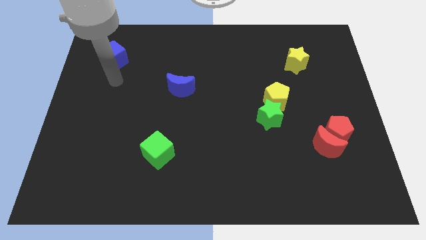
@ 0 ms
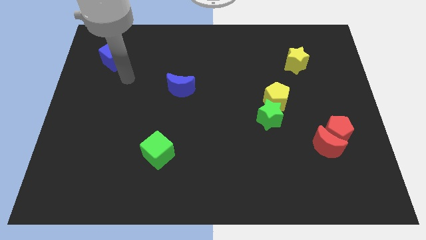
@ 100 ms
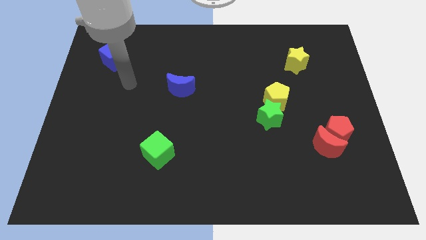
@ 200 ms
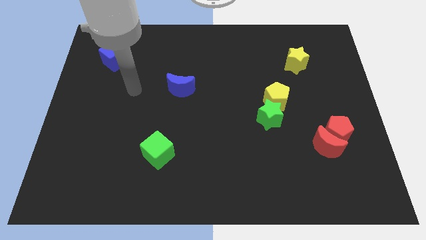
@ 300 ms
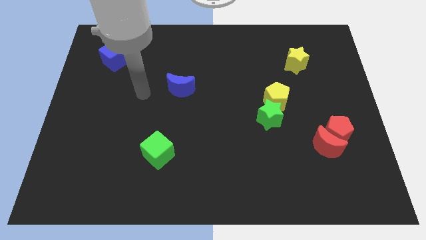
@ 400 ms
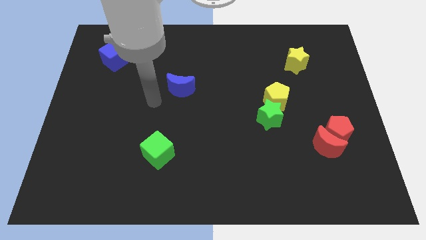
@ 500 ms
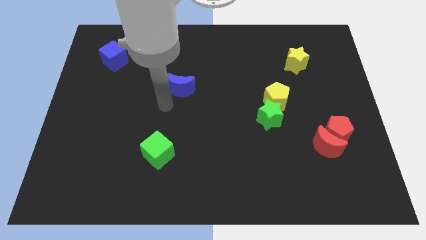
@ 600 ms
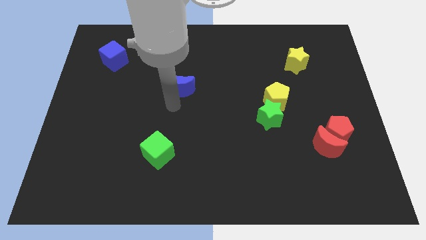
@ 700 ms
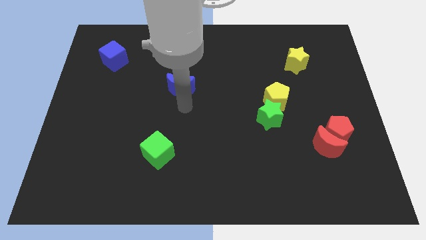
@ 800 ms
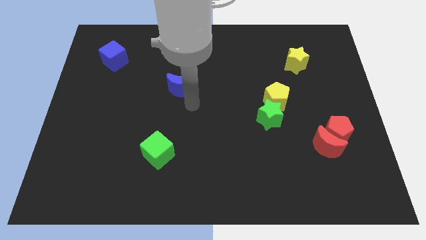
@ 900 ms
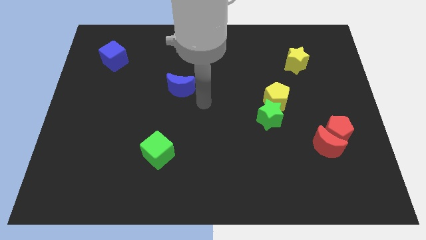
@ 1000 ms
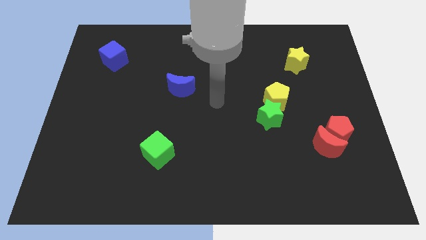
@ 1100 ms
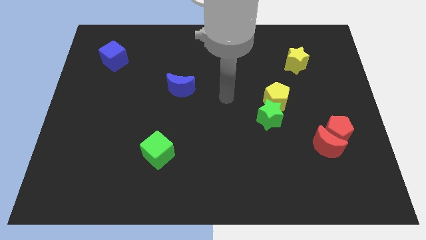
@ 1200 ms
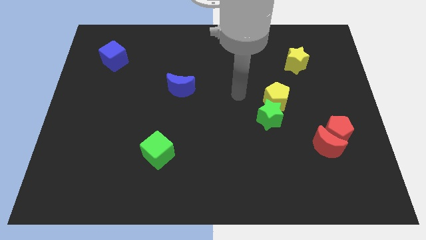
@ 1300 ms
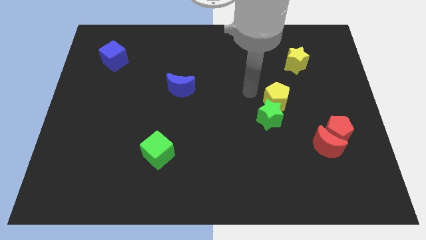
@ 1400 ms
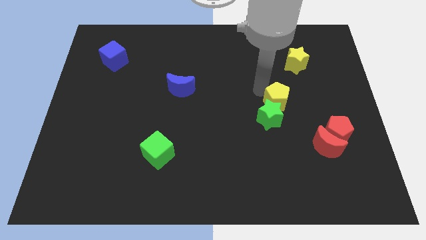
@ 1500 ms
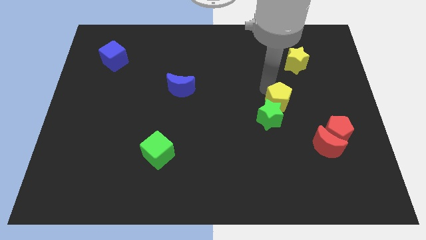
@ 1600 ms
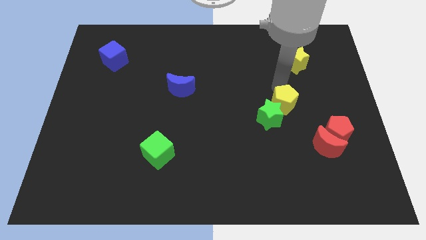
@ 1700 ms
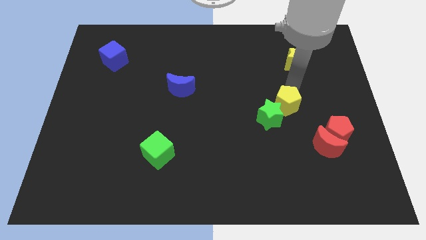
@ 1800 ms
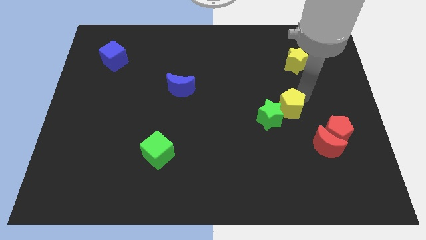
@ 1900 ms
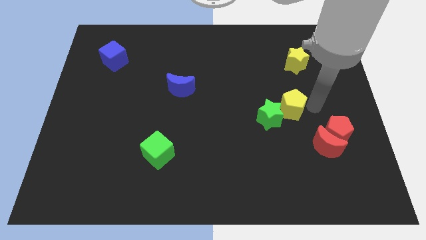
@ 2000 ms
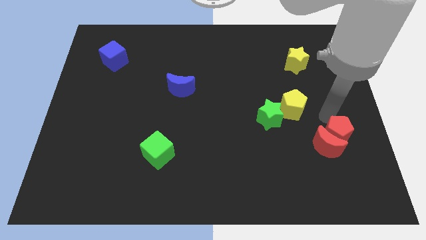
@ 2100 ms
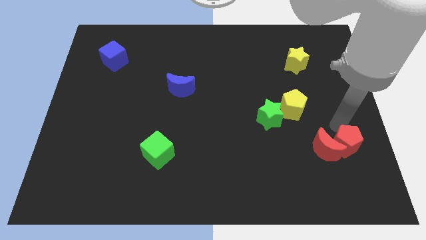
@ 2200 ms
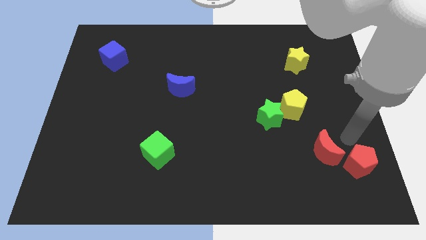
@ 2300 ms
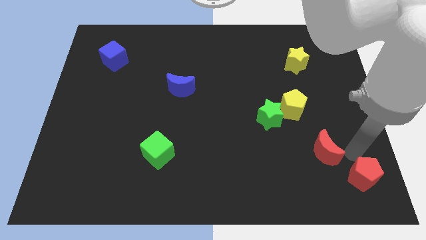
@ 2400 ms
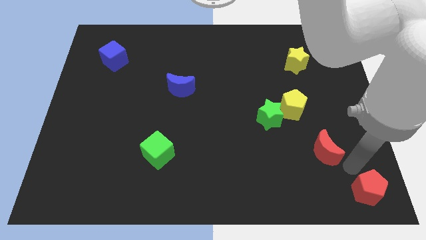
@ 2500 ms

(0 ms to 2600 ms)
separate the red moon from the red pentagon

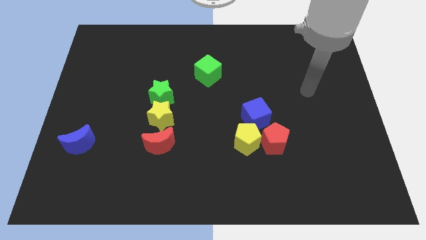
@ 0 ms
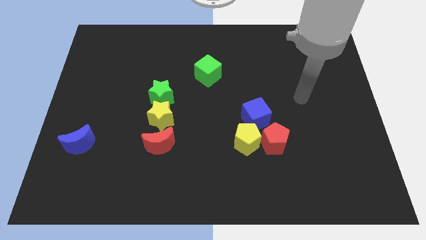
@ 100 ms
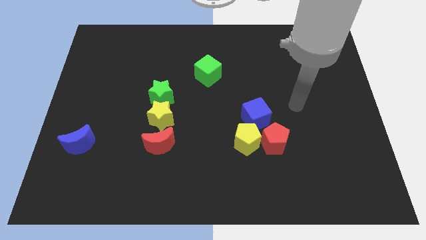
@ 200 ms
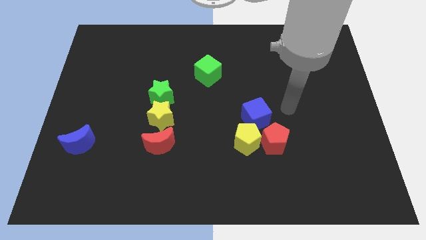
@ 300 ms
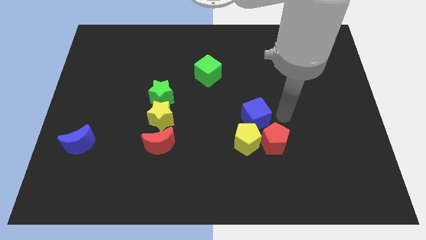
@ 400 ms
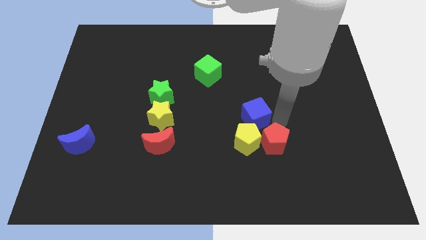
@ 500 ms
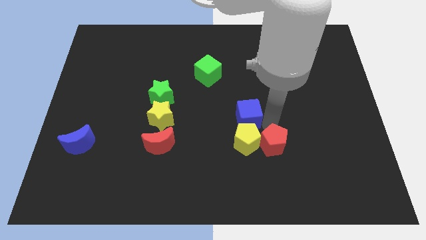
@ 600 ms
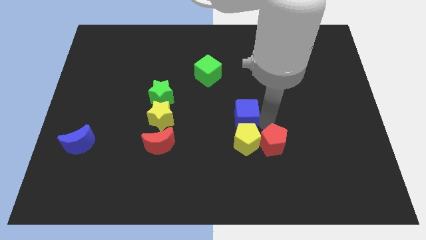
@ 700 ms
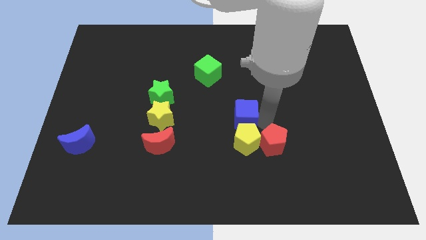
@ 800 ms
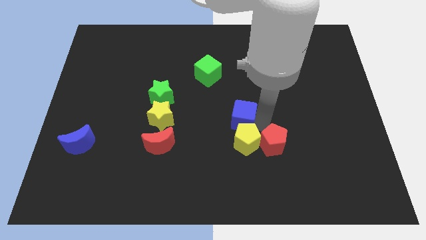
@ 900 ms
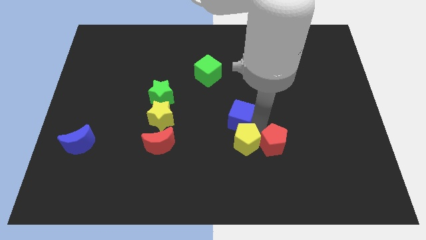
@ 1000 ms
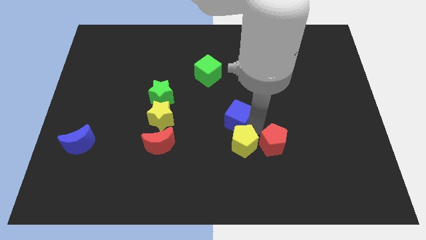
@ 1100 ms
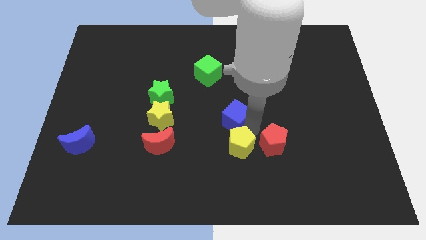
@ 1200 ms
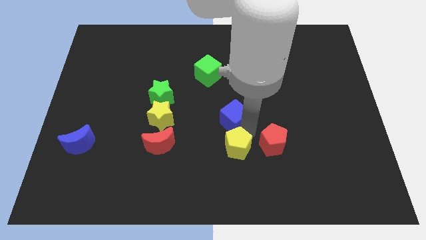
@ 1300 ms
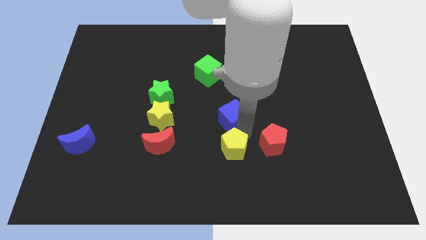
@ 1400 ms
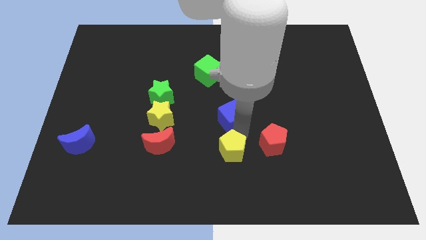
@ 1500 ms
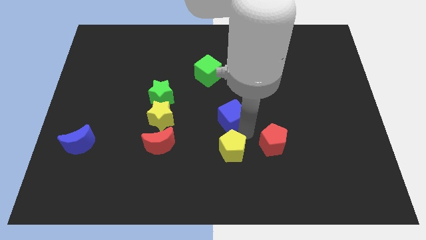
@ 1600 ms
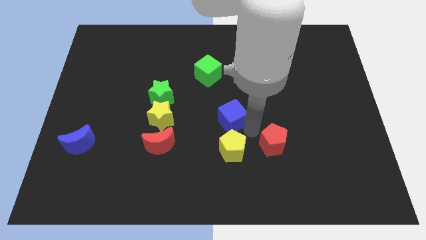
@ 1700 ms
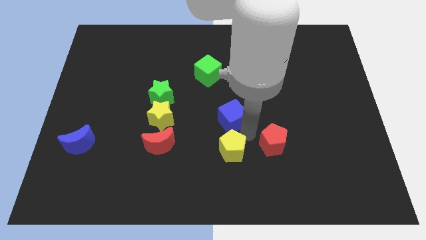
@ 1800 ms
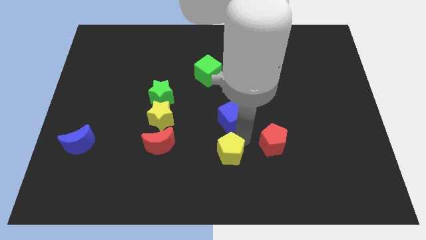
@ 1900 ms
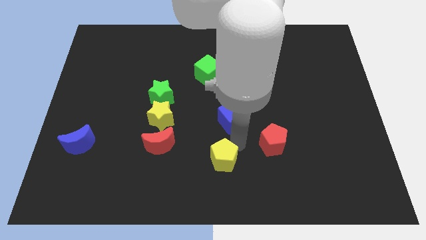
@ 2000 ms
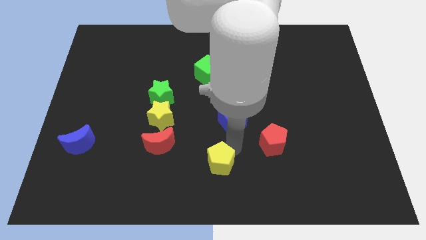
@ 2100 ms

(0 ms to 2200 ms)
pull the yellow pentagon apart from the red pentagon and blue cube

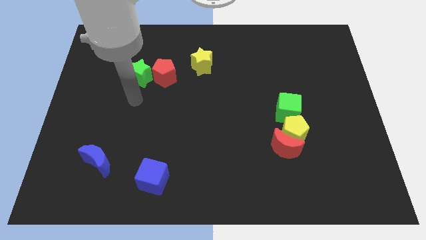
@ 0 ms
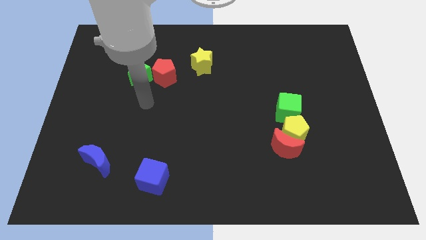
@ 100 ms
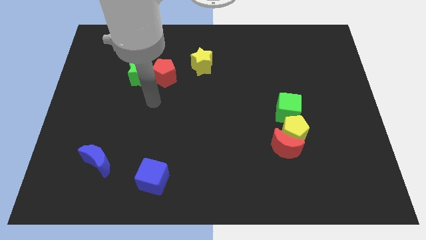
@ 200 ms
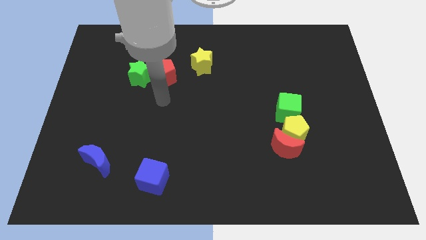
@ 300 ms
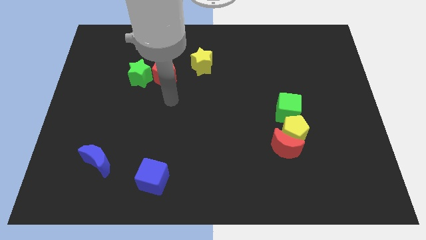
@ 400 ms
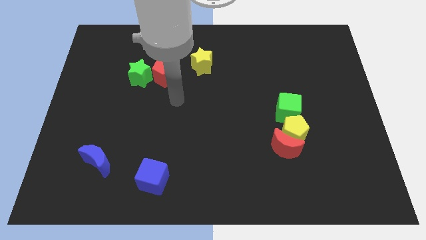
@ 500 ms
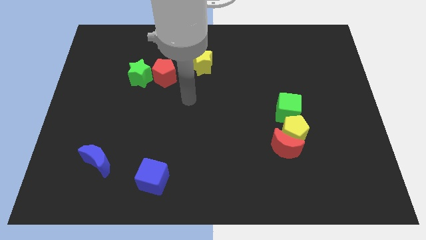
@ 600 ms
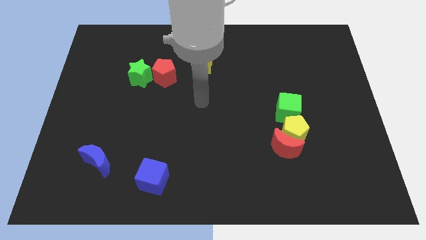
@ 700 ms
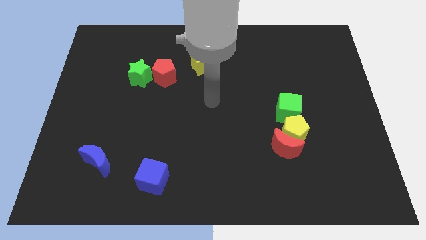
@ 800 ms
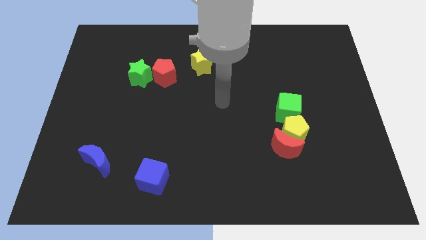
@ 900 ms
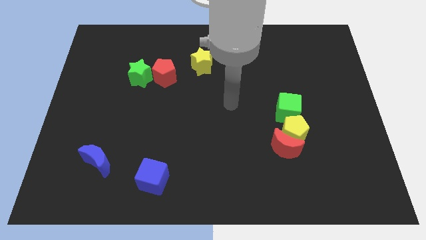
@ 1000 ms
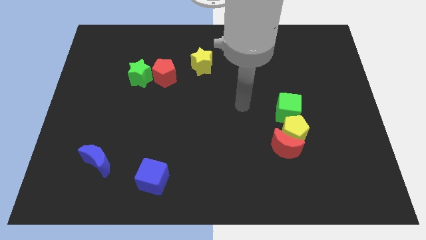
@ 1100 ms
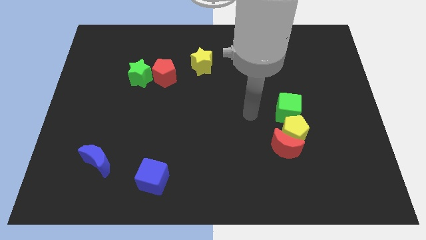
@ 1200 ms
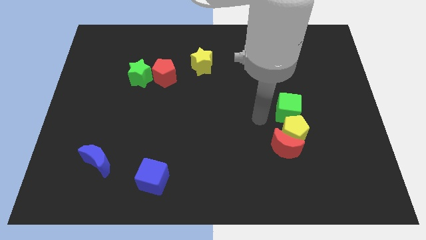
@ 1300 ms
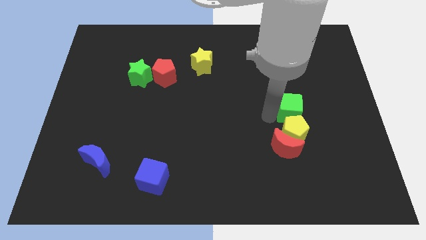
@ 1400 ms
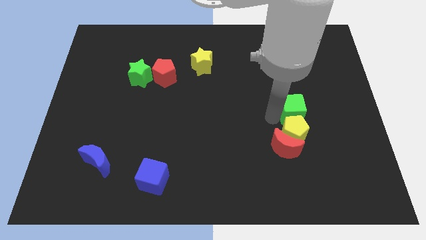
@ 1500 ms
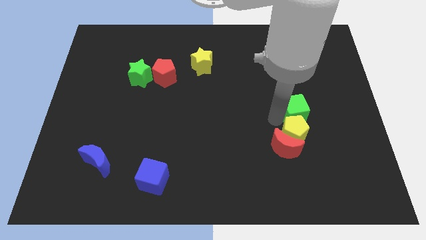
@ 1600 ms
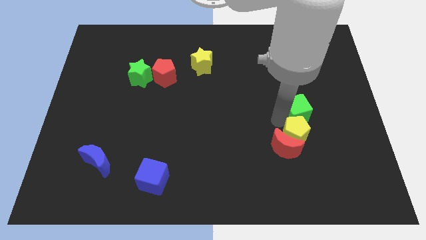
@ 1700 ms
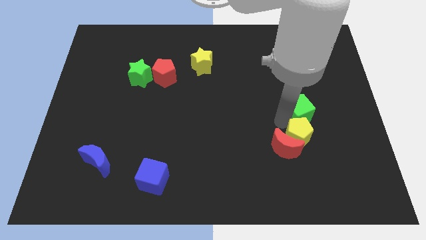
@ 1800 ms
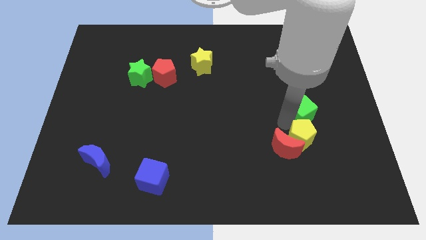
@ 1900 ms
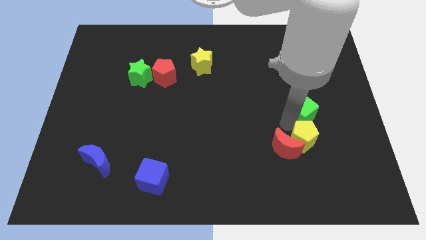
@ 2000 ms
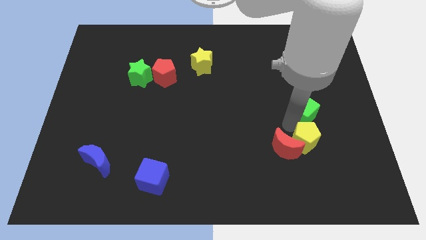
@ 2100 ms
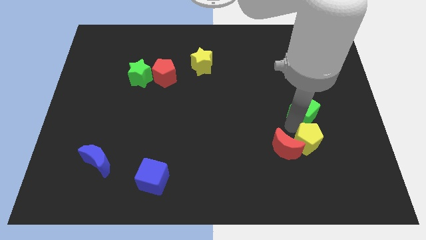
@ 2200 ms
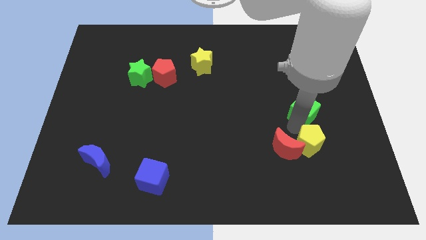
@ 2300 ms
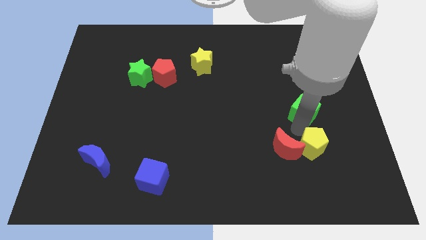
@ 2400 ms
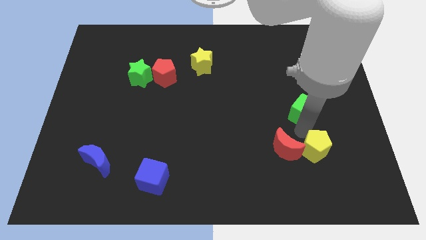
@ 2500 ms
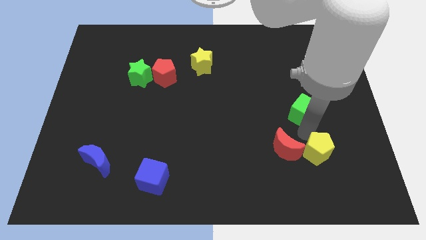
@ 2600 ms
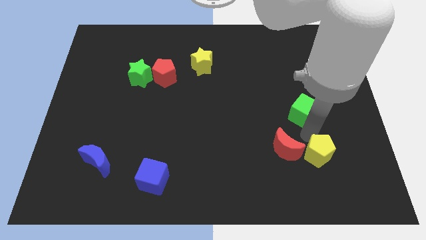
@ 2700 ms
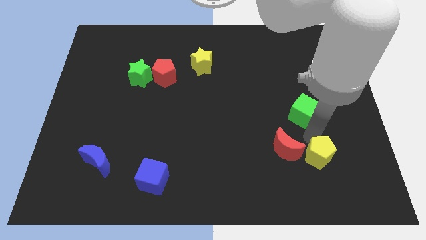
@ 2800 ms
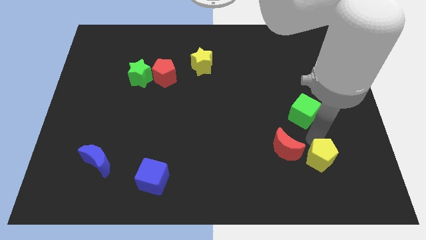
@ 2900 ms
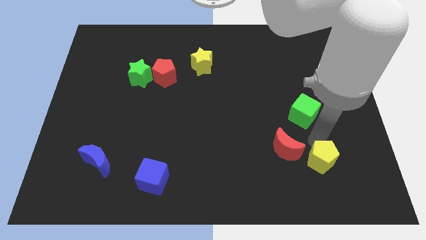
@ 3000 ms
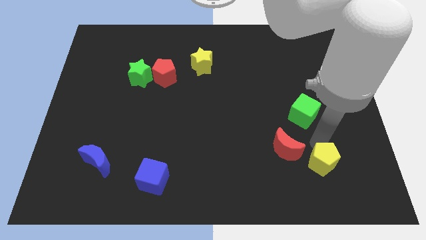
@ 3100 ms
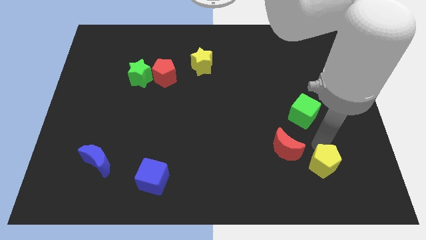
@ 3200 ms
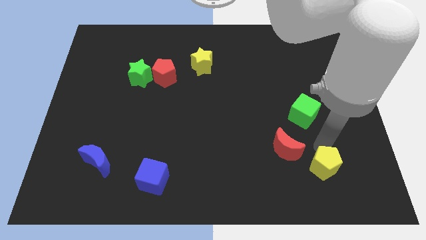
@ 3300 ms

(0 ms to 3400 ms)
move the yellow pentagon away from the red moon and green cube

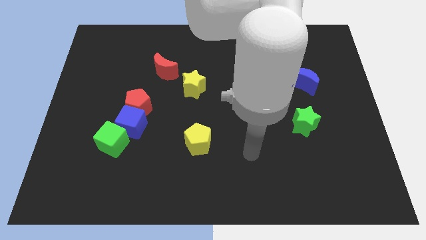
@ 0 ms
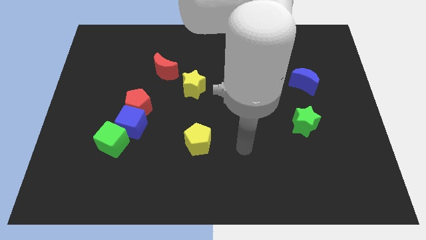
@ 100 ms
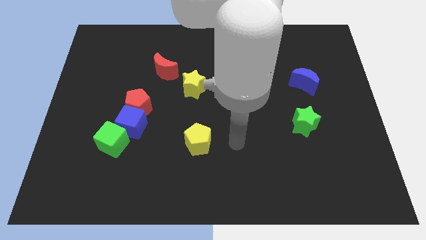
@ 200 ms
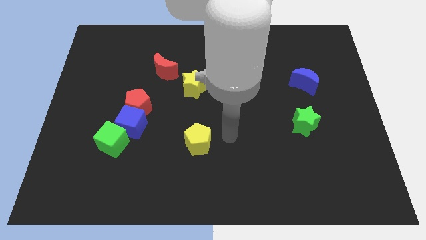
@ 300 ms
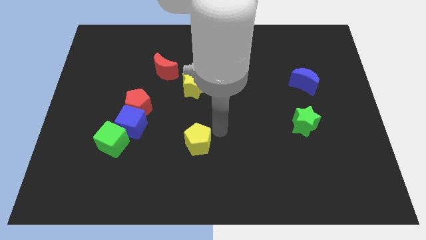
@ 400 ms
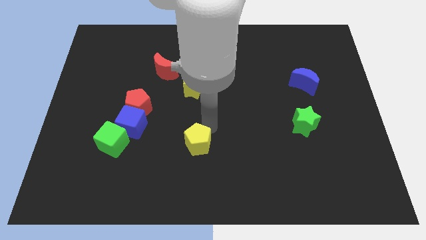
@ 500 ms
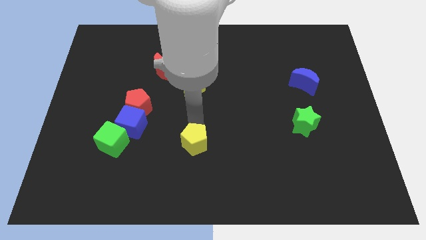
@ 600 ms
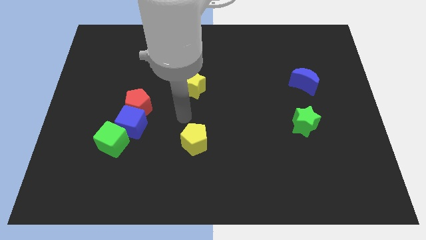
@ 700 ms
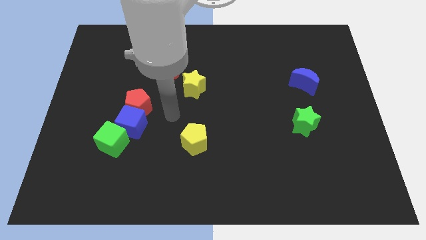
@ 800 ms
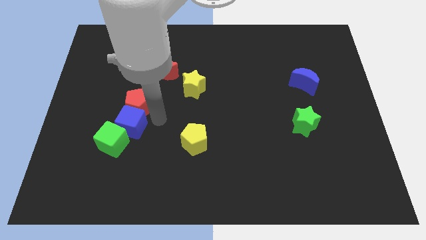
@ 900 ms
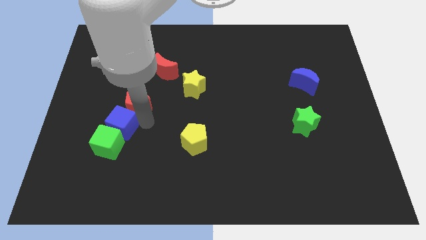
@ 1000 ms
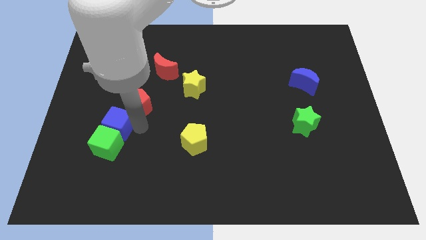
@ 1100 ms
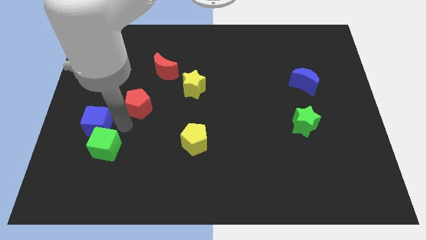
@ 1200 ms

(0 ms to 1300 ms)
move the red pentagon away from the blue cube
